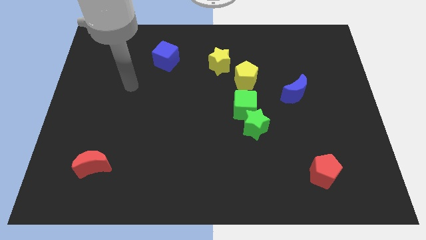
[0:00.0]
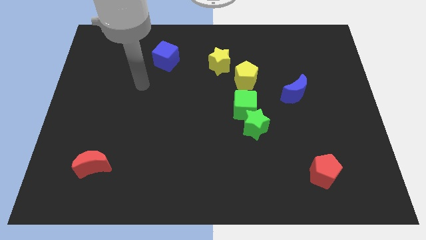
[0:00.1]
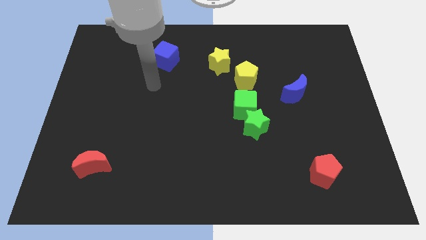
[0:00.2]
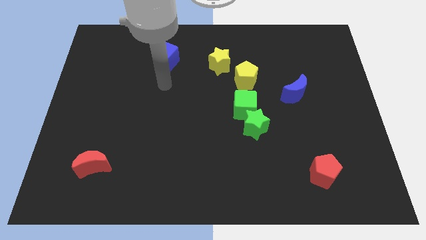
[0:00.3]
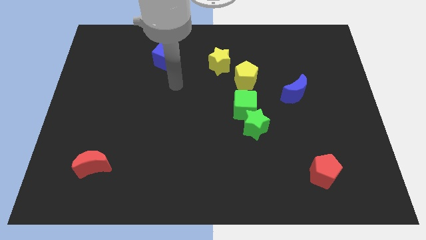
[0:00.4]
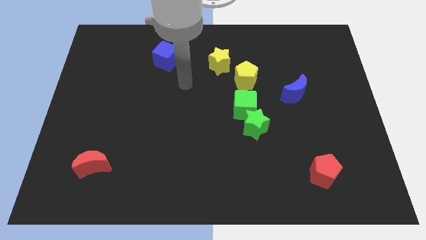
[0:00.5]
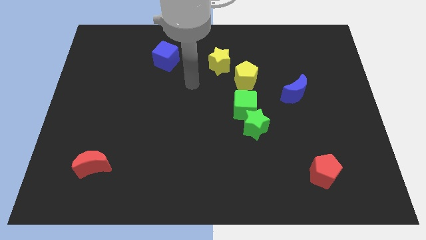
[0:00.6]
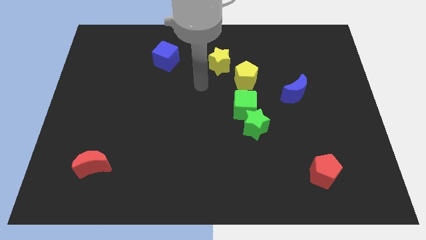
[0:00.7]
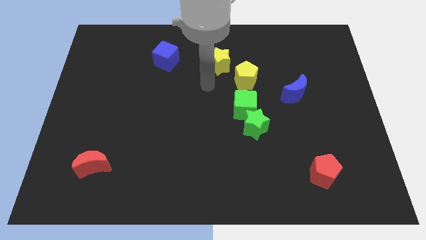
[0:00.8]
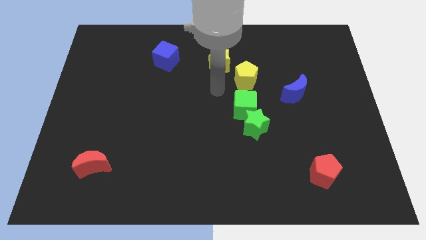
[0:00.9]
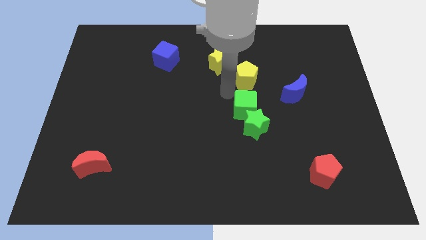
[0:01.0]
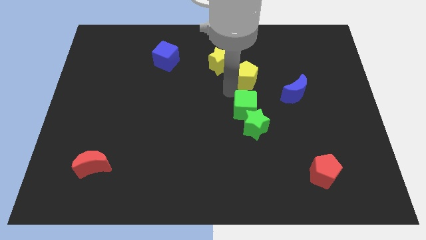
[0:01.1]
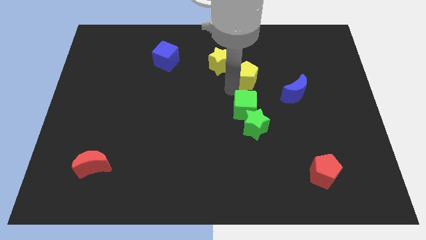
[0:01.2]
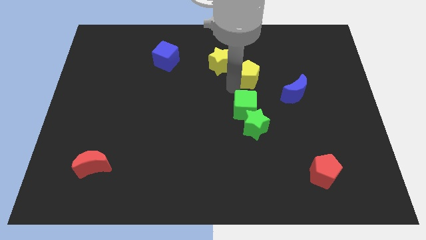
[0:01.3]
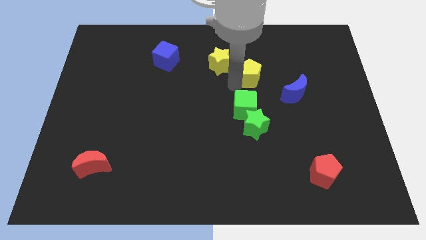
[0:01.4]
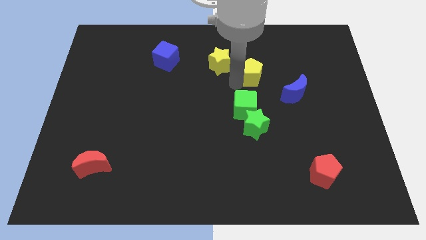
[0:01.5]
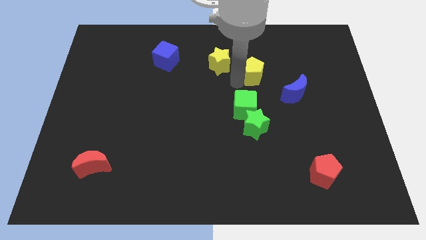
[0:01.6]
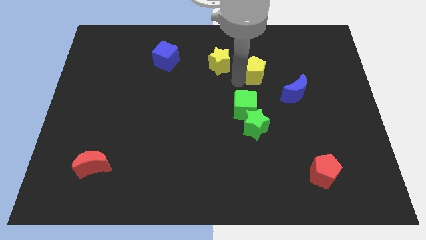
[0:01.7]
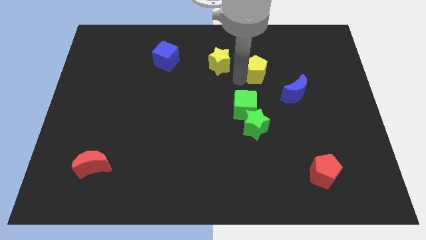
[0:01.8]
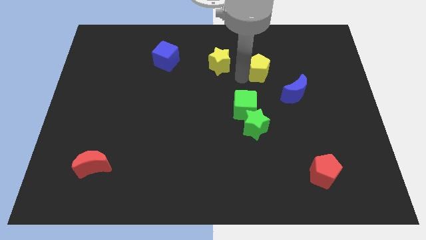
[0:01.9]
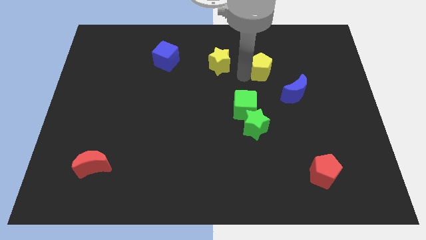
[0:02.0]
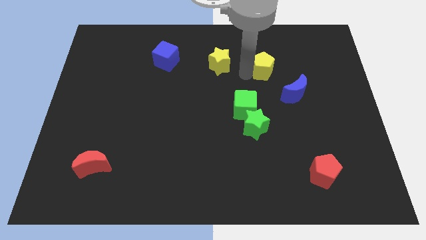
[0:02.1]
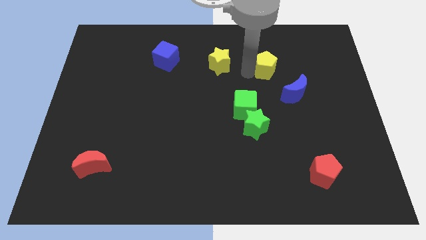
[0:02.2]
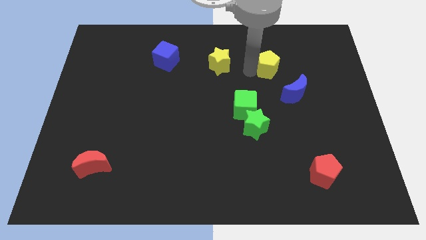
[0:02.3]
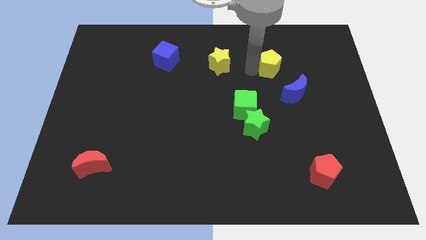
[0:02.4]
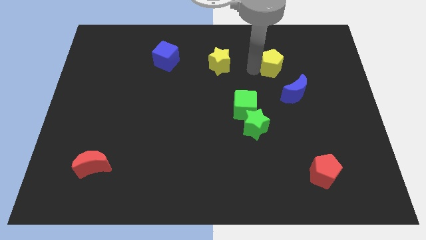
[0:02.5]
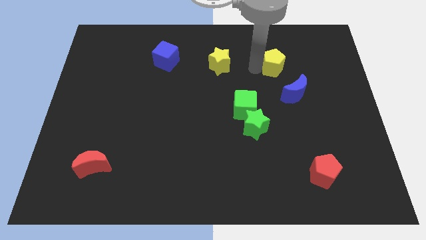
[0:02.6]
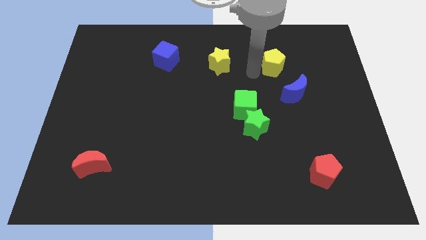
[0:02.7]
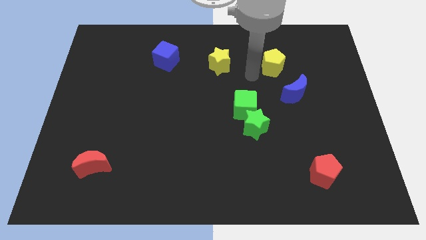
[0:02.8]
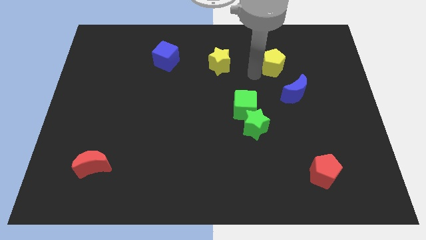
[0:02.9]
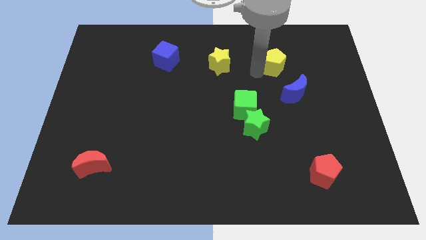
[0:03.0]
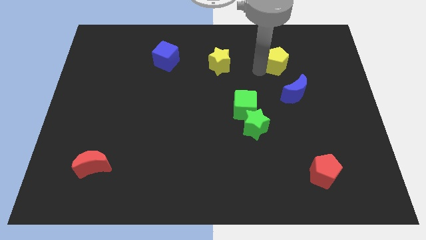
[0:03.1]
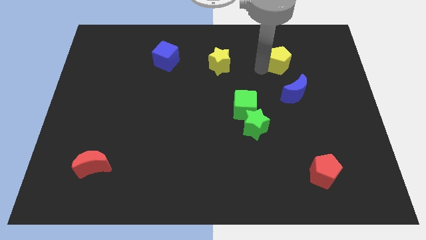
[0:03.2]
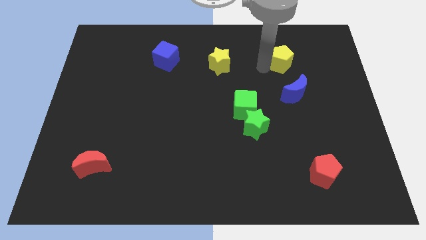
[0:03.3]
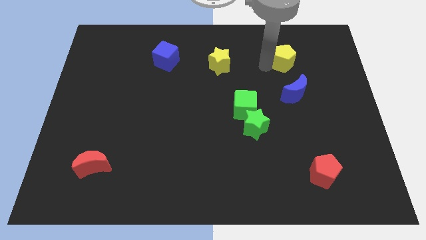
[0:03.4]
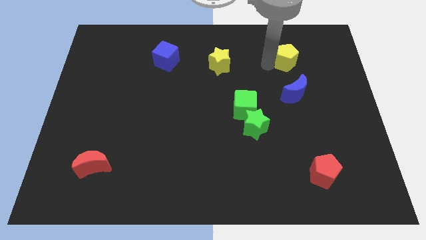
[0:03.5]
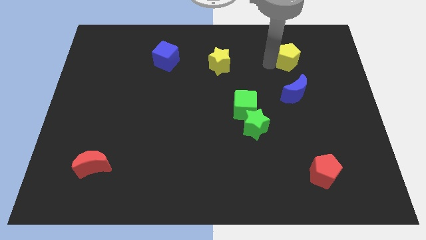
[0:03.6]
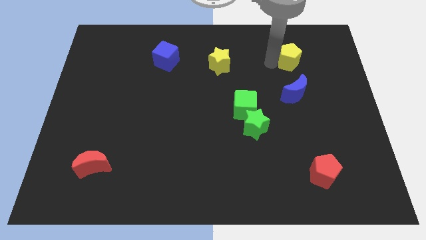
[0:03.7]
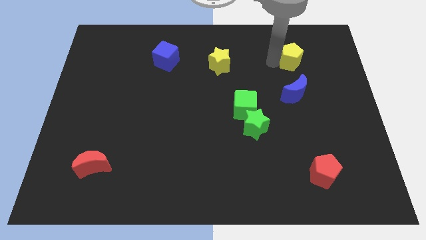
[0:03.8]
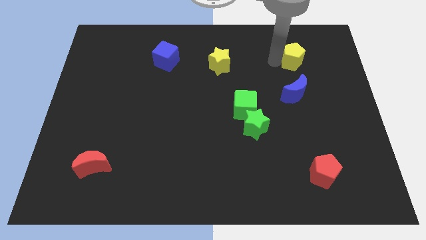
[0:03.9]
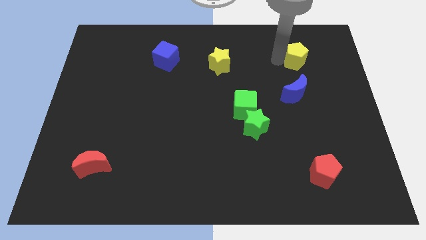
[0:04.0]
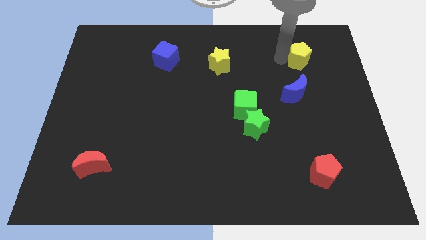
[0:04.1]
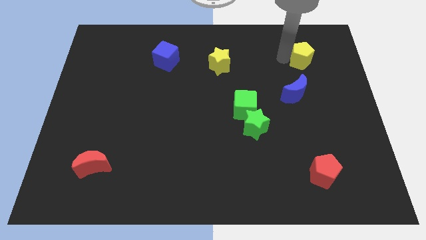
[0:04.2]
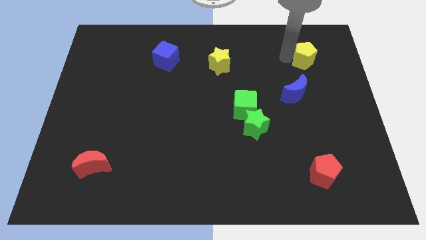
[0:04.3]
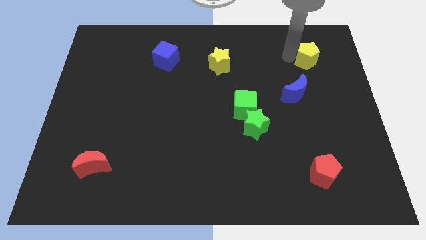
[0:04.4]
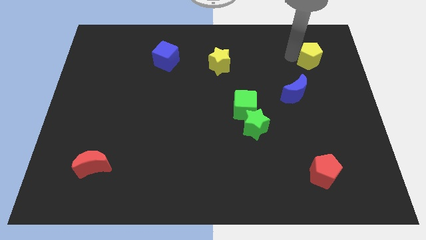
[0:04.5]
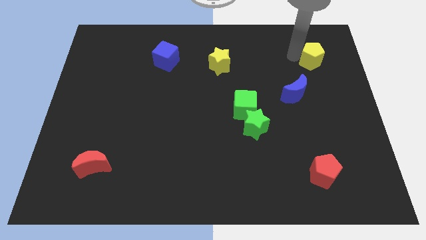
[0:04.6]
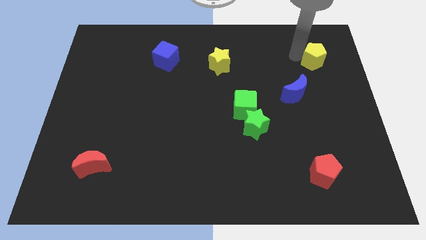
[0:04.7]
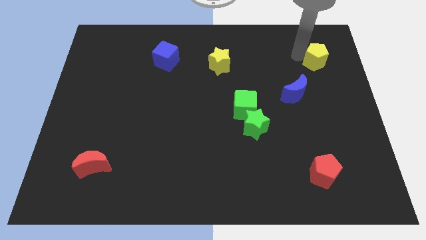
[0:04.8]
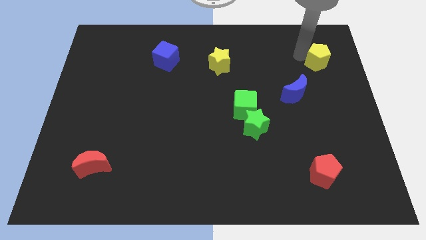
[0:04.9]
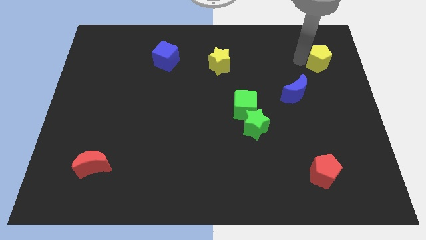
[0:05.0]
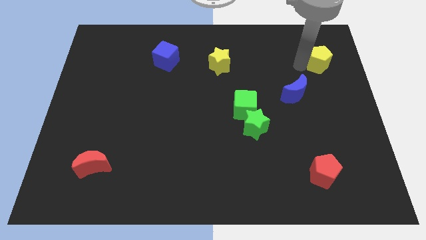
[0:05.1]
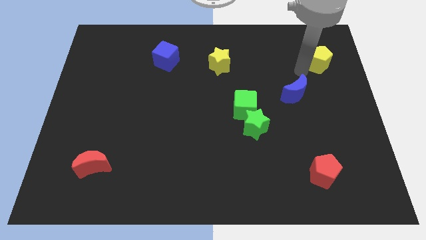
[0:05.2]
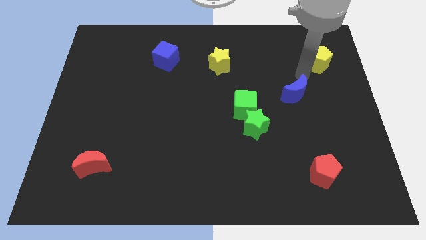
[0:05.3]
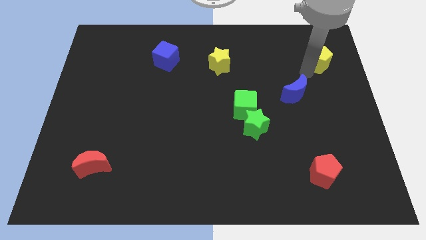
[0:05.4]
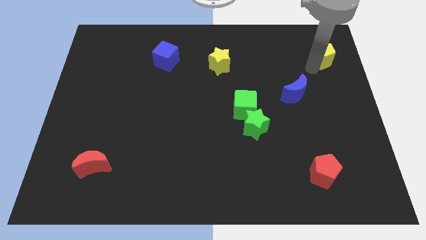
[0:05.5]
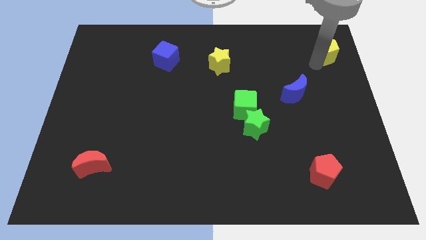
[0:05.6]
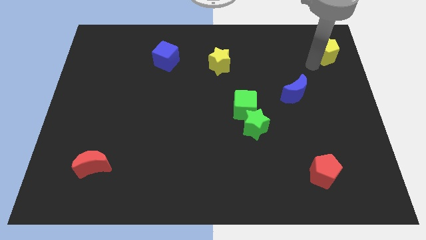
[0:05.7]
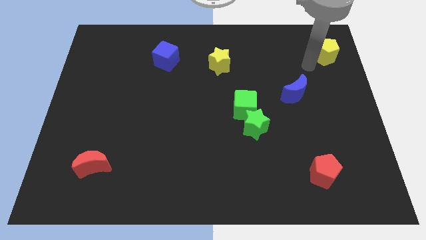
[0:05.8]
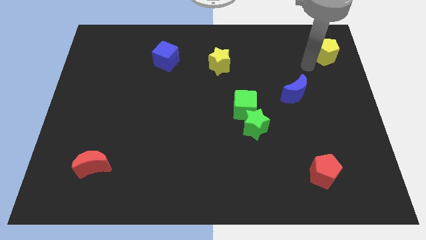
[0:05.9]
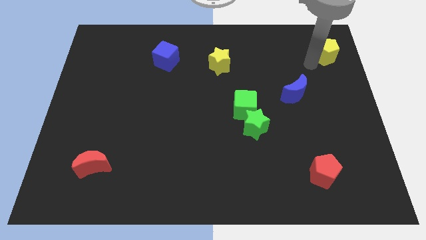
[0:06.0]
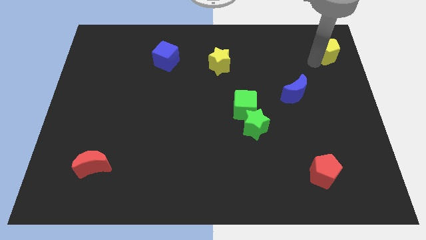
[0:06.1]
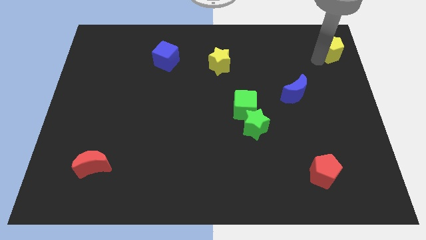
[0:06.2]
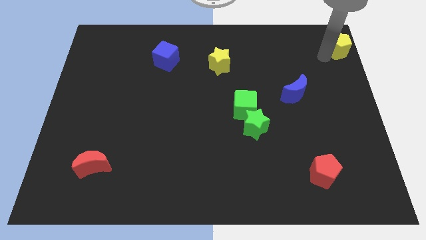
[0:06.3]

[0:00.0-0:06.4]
move the yellow pentagon to the top right
